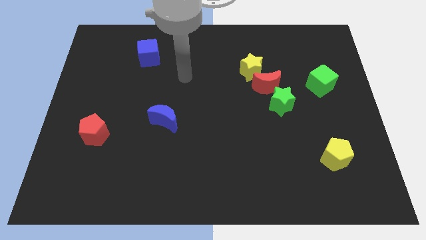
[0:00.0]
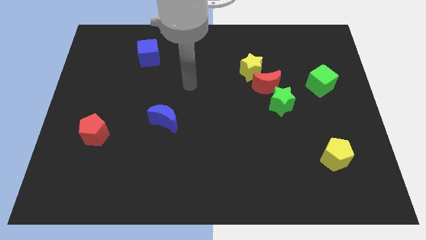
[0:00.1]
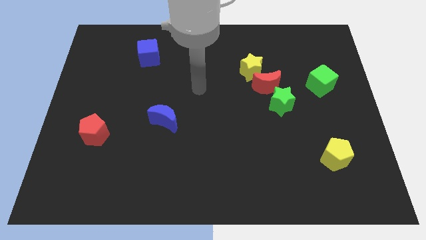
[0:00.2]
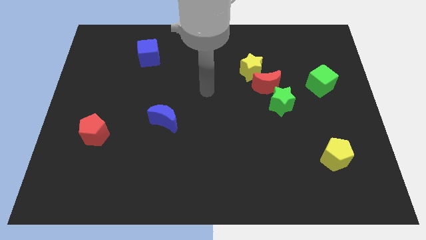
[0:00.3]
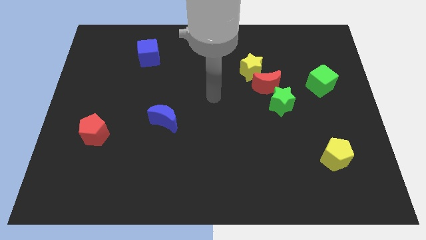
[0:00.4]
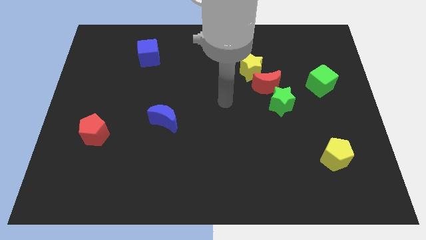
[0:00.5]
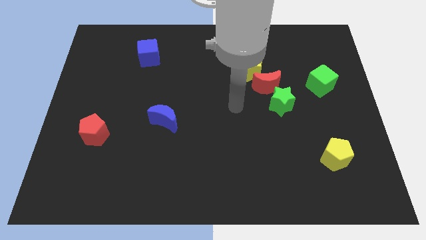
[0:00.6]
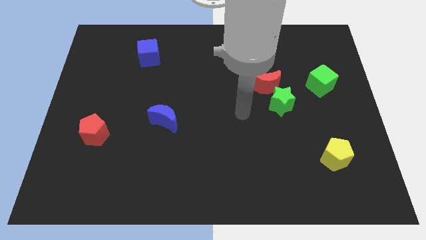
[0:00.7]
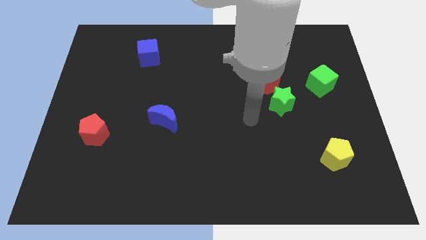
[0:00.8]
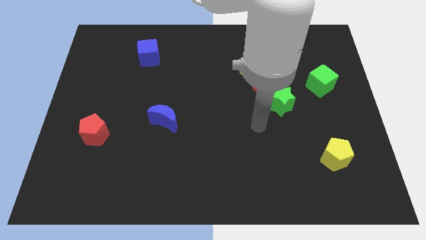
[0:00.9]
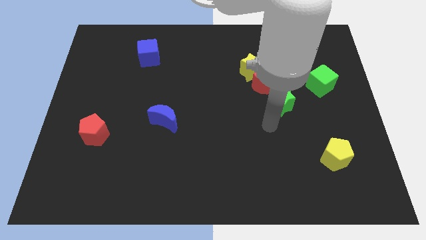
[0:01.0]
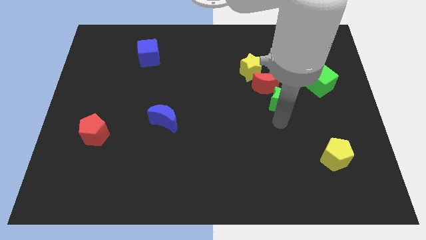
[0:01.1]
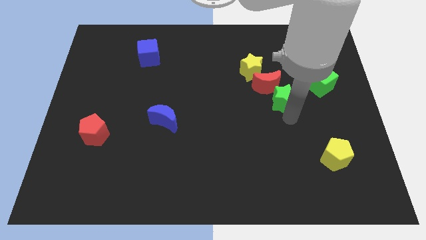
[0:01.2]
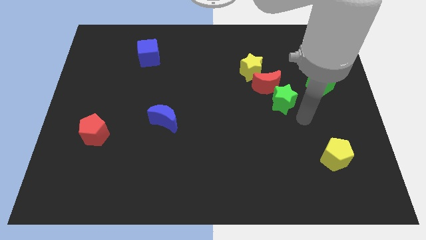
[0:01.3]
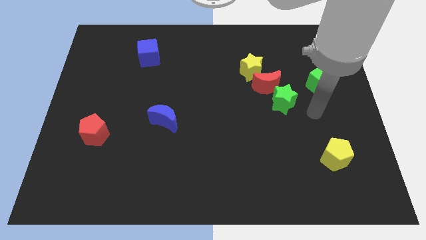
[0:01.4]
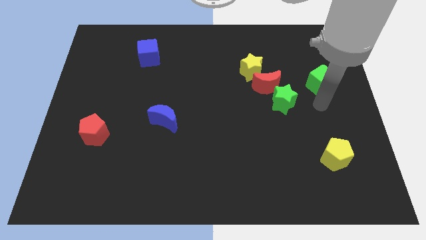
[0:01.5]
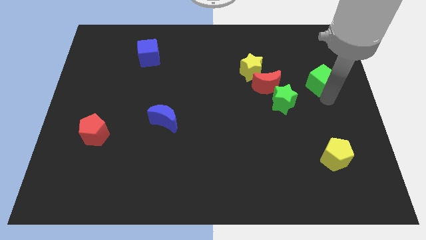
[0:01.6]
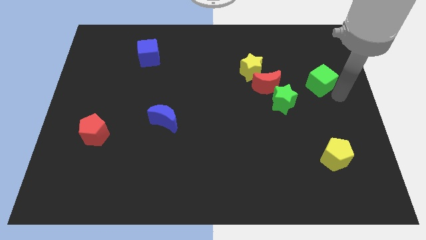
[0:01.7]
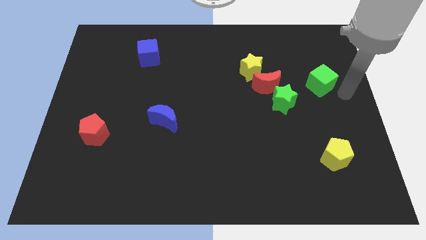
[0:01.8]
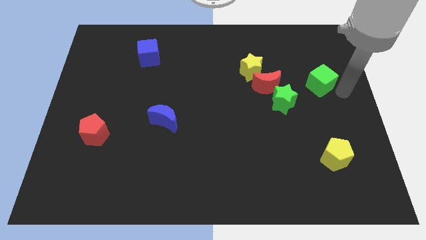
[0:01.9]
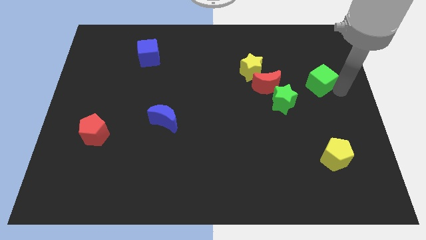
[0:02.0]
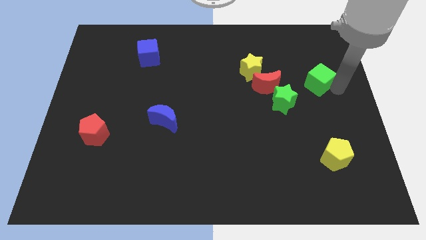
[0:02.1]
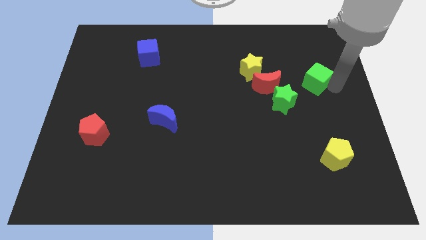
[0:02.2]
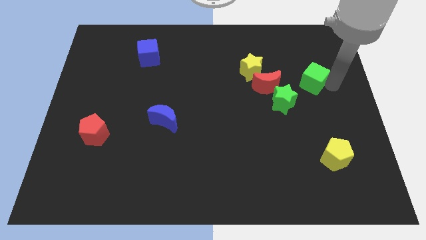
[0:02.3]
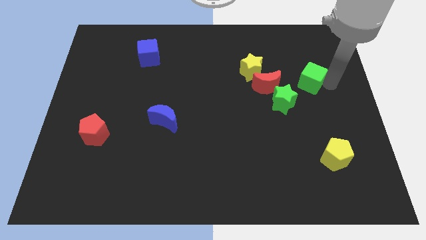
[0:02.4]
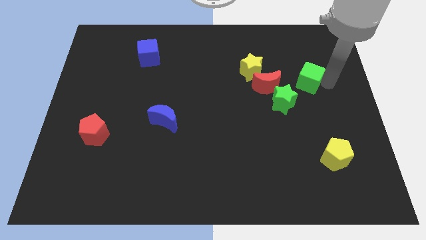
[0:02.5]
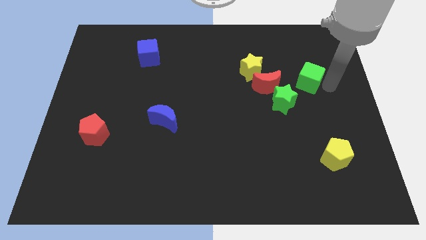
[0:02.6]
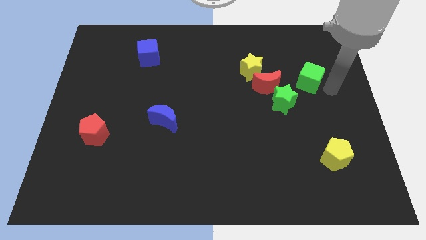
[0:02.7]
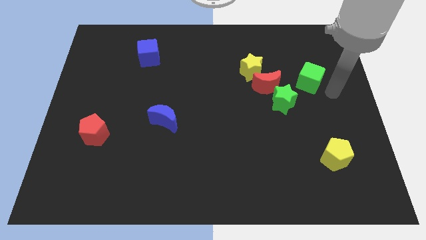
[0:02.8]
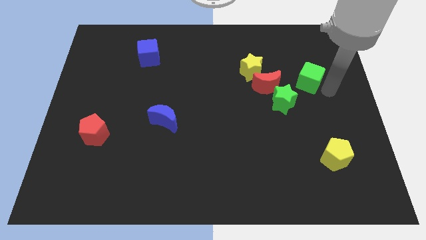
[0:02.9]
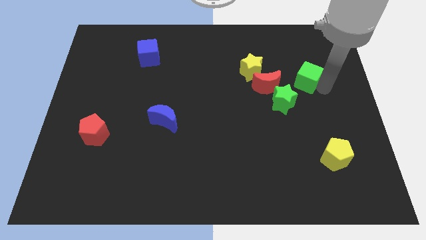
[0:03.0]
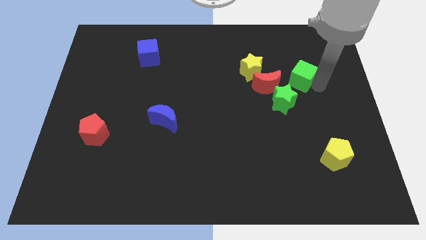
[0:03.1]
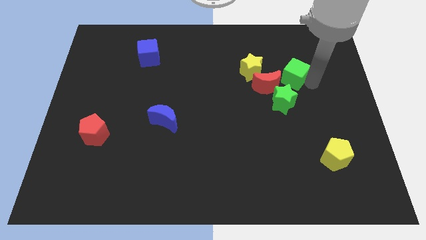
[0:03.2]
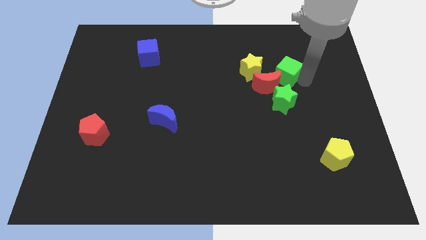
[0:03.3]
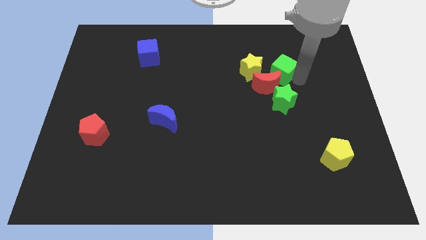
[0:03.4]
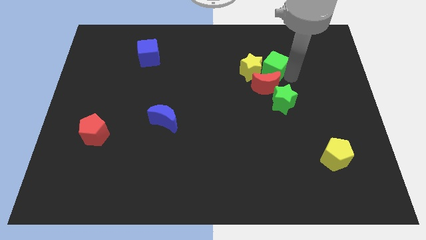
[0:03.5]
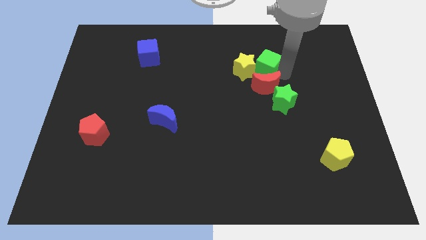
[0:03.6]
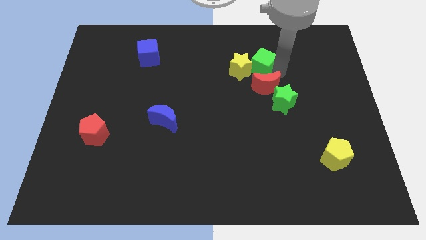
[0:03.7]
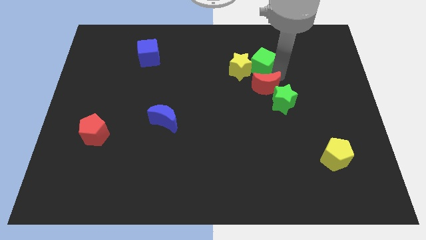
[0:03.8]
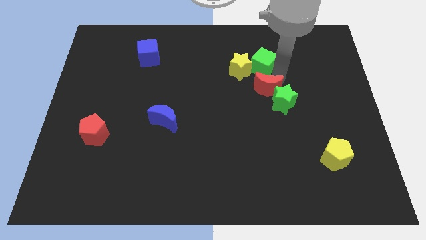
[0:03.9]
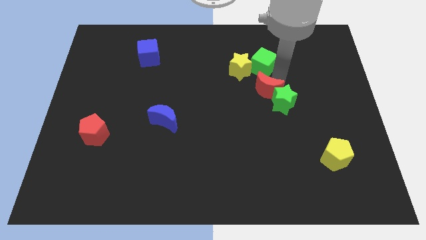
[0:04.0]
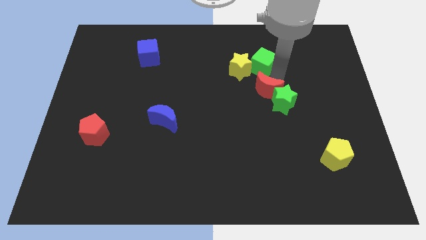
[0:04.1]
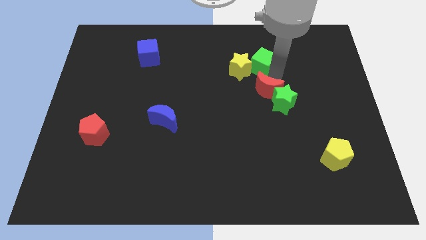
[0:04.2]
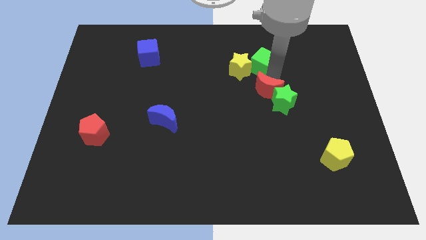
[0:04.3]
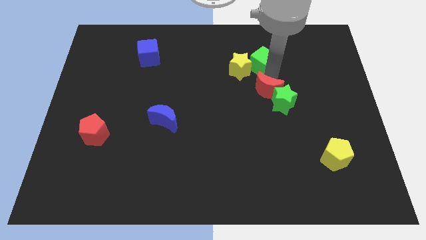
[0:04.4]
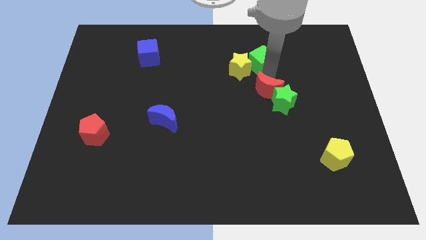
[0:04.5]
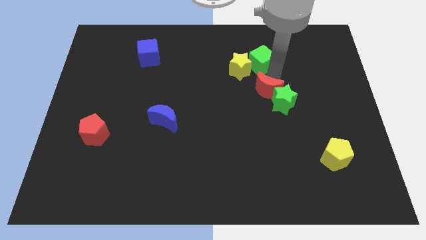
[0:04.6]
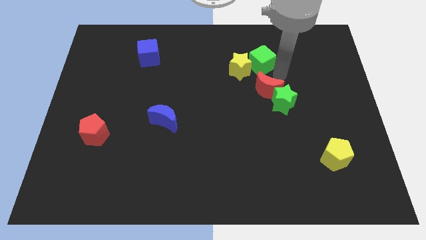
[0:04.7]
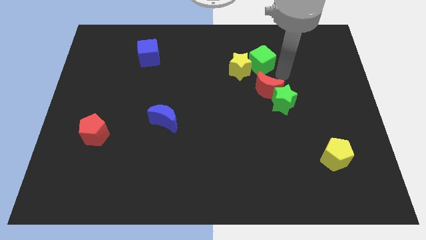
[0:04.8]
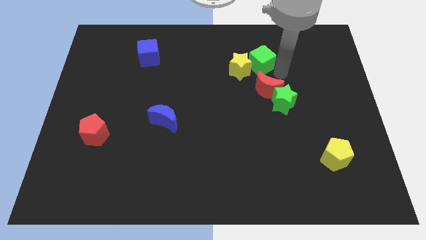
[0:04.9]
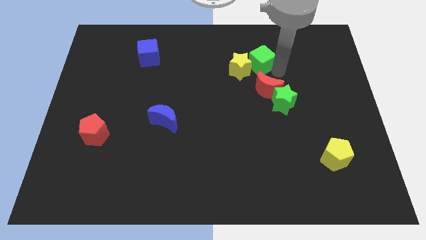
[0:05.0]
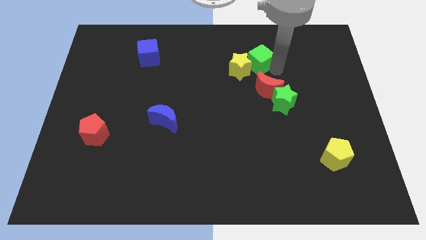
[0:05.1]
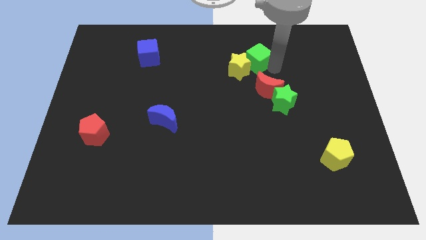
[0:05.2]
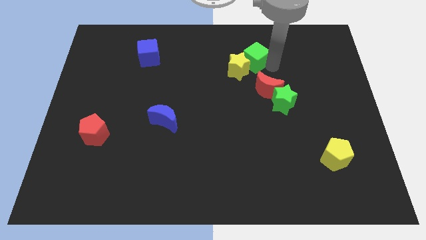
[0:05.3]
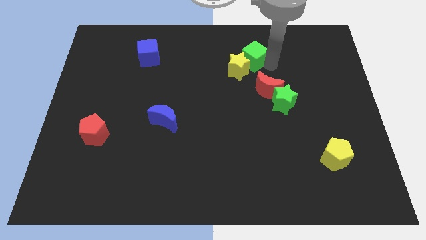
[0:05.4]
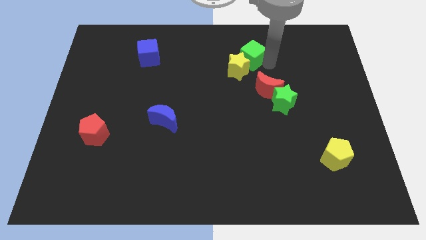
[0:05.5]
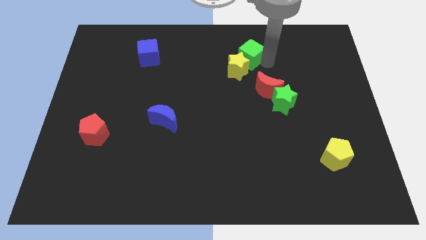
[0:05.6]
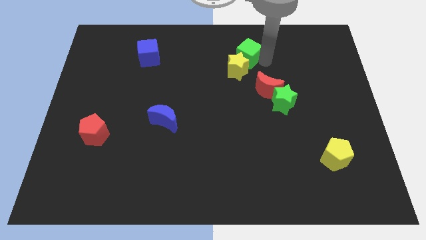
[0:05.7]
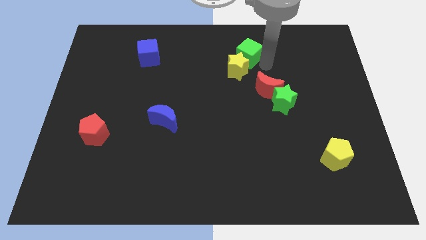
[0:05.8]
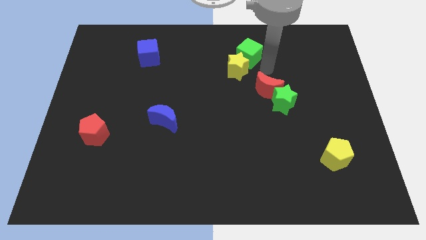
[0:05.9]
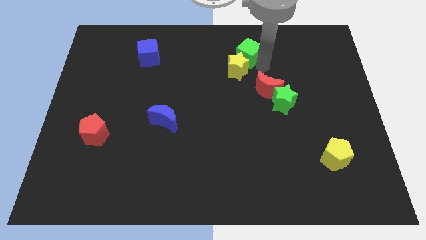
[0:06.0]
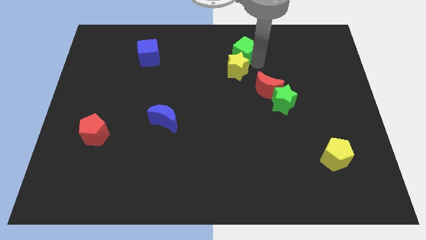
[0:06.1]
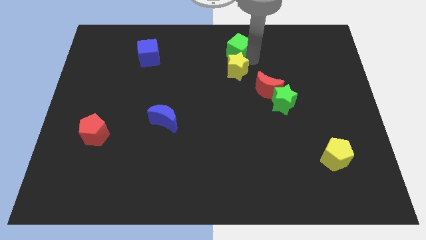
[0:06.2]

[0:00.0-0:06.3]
move the green cube to the top

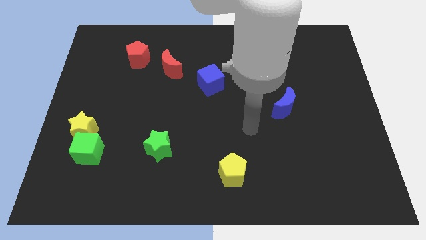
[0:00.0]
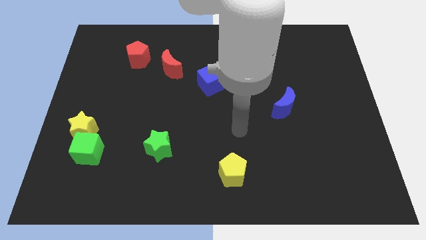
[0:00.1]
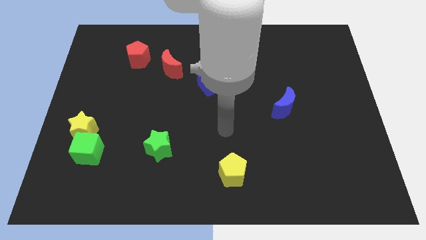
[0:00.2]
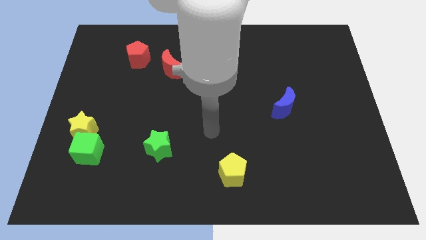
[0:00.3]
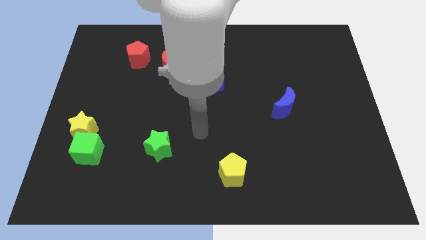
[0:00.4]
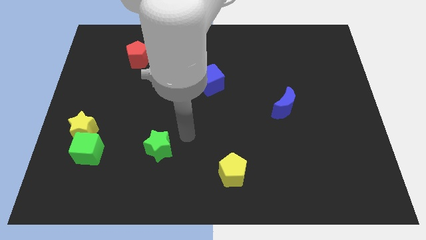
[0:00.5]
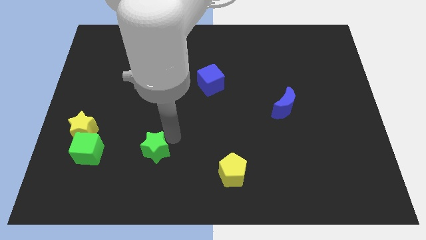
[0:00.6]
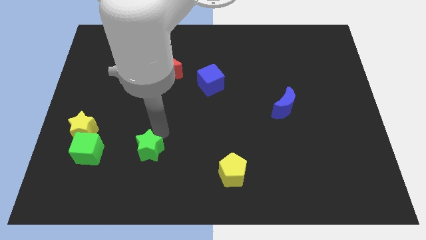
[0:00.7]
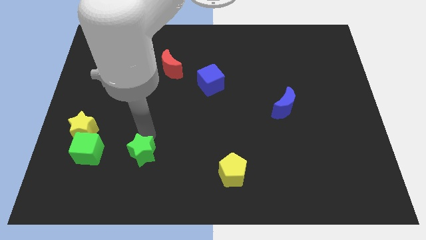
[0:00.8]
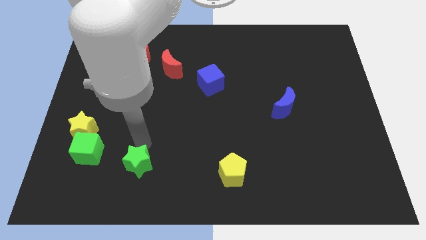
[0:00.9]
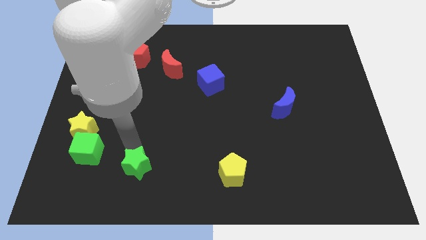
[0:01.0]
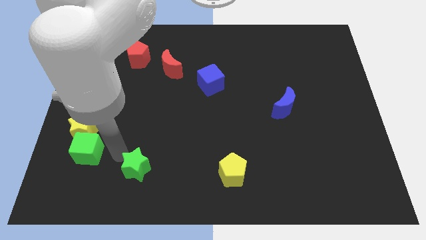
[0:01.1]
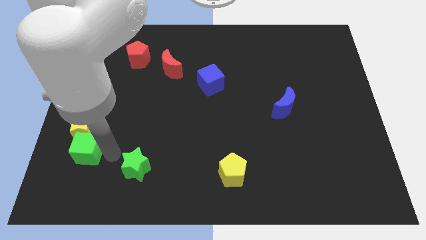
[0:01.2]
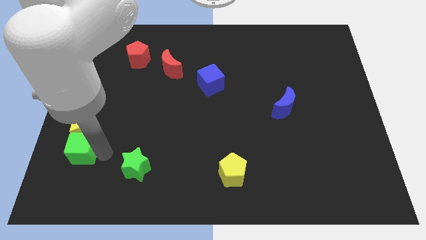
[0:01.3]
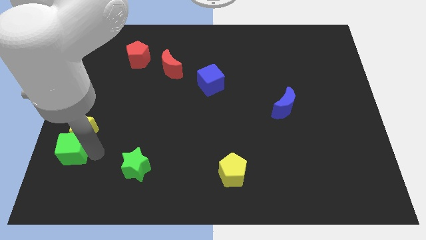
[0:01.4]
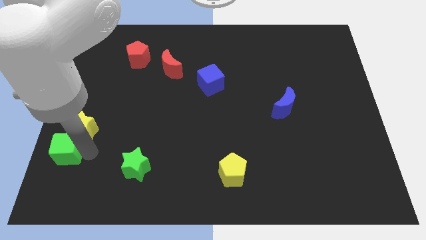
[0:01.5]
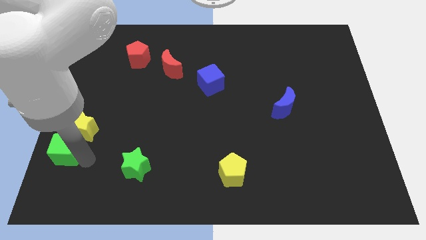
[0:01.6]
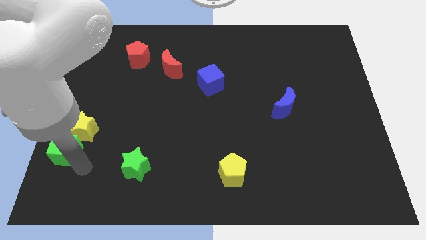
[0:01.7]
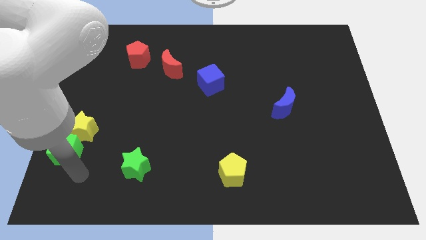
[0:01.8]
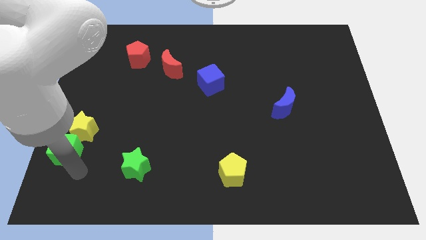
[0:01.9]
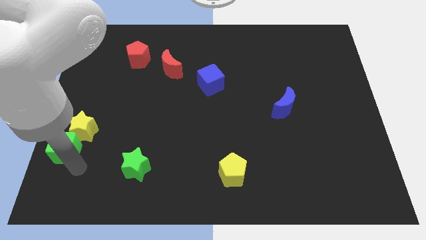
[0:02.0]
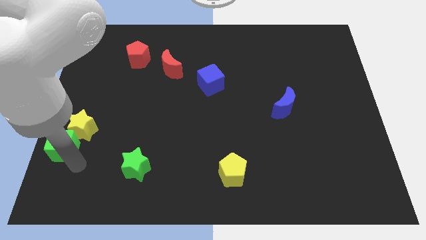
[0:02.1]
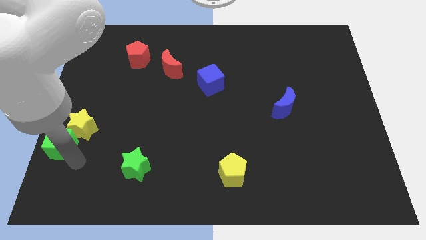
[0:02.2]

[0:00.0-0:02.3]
move the green cube to the left side of the board
